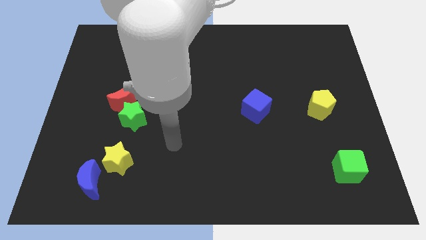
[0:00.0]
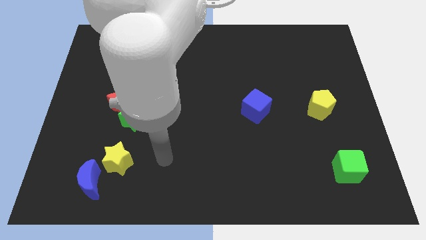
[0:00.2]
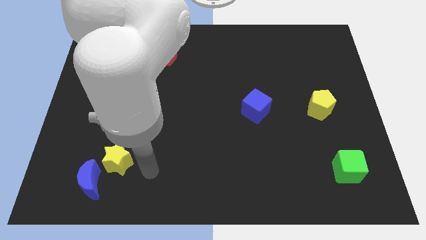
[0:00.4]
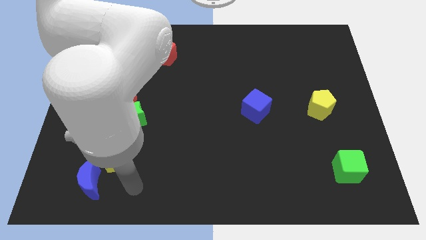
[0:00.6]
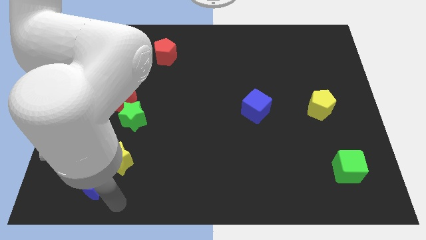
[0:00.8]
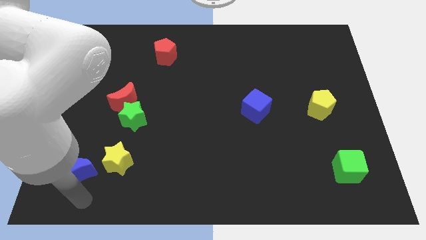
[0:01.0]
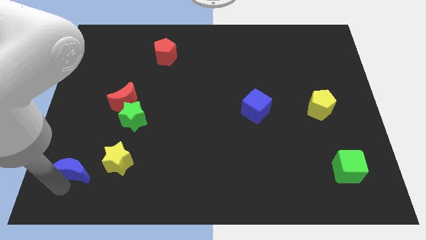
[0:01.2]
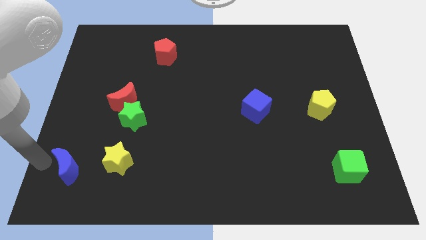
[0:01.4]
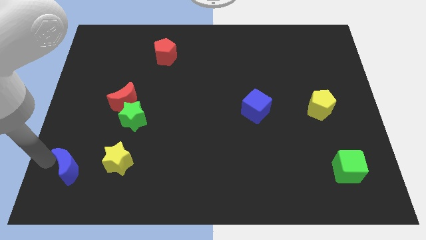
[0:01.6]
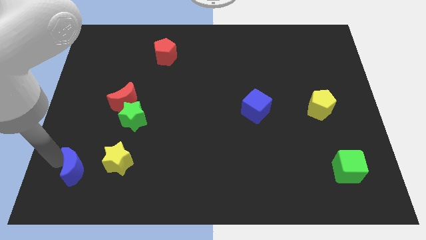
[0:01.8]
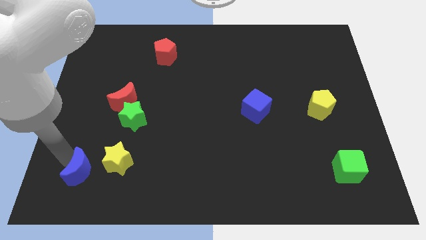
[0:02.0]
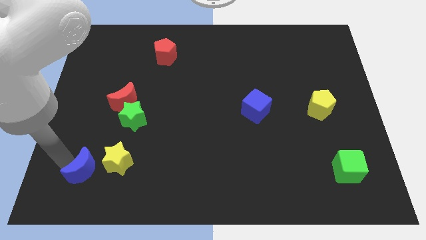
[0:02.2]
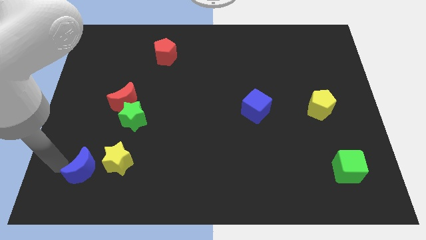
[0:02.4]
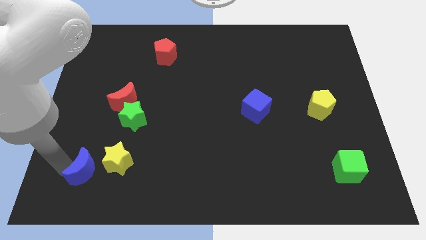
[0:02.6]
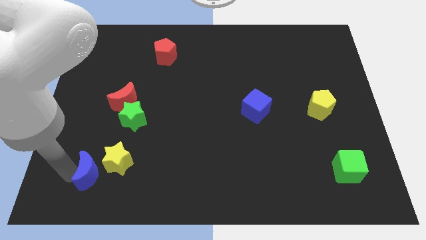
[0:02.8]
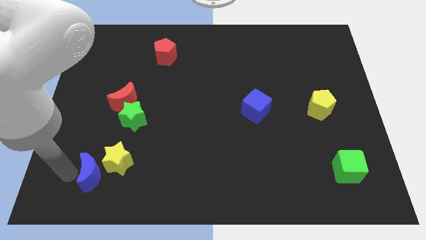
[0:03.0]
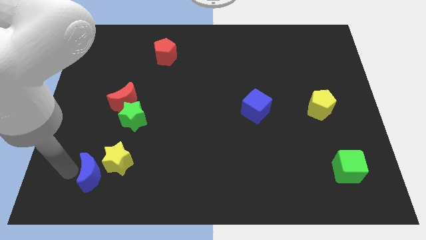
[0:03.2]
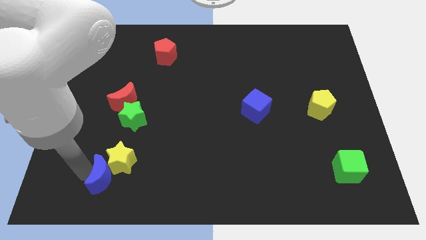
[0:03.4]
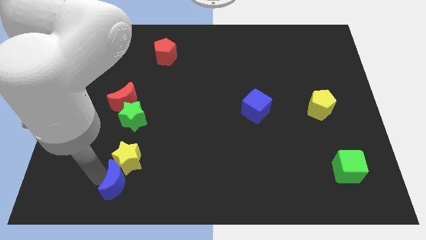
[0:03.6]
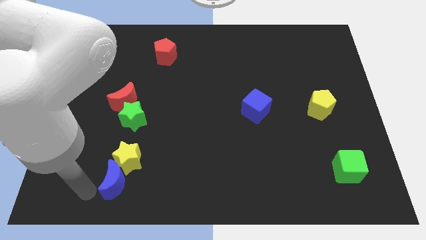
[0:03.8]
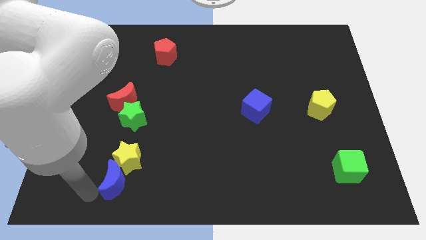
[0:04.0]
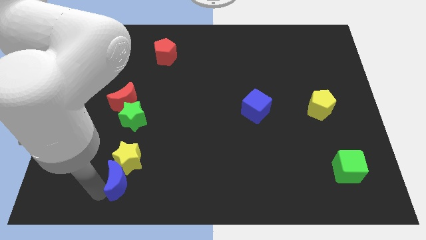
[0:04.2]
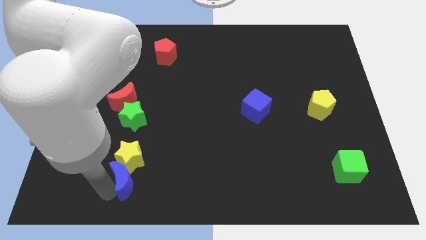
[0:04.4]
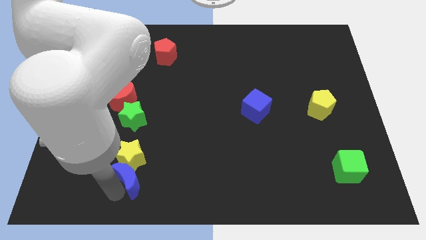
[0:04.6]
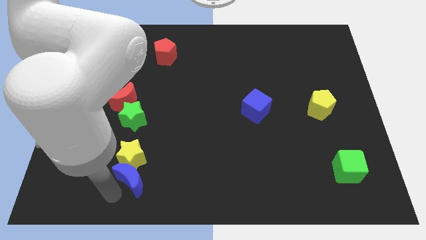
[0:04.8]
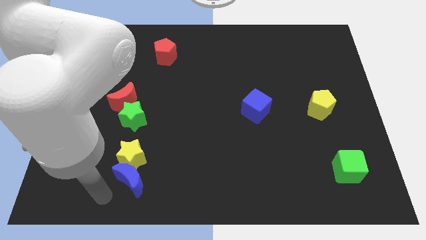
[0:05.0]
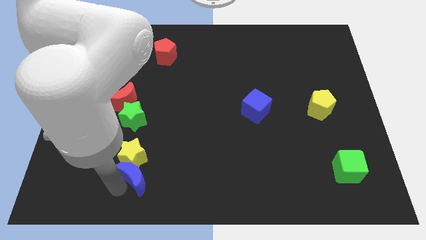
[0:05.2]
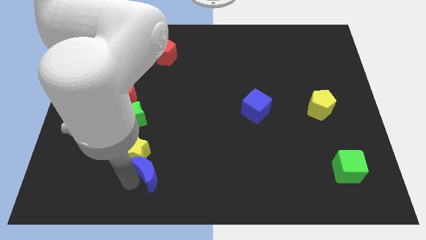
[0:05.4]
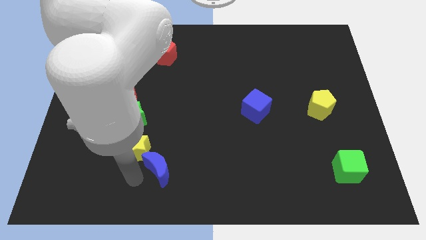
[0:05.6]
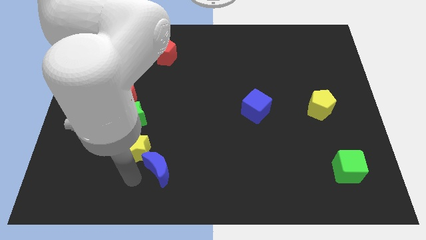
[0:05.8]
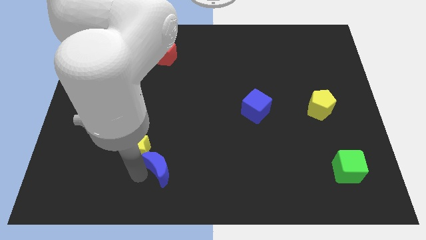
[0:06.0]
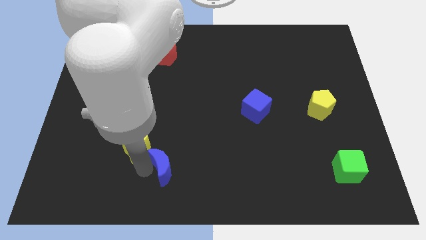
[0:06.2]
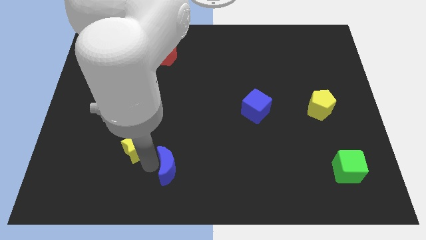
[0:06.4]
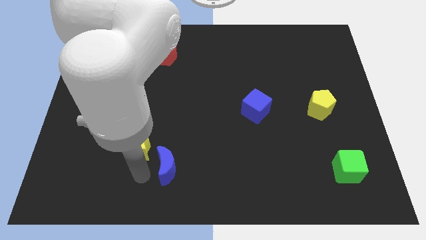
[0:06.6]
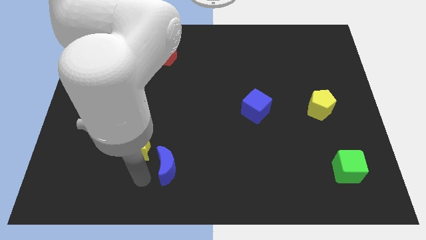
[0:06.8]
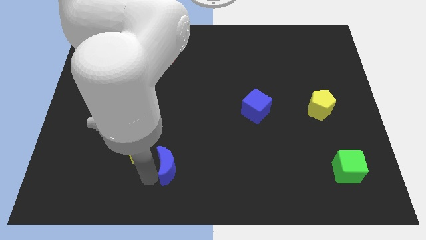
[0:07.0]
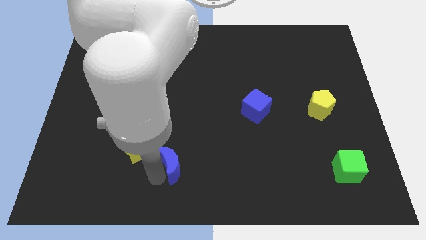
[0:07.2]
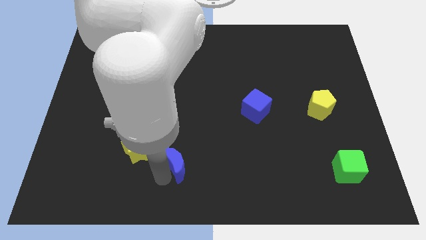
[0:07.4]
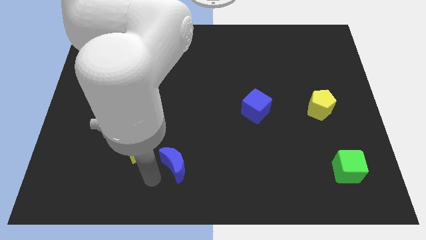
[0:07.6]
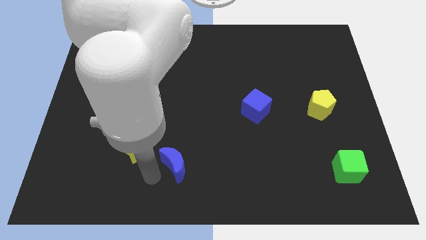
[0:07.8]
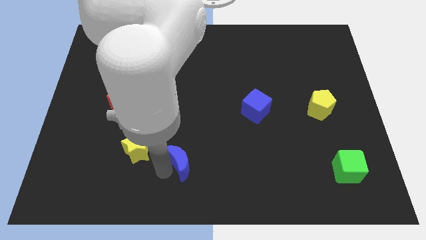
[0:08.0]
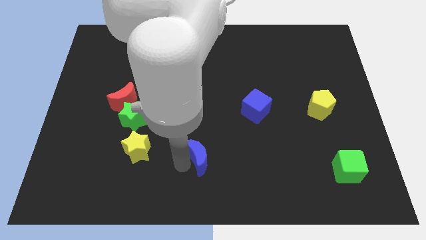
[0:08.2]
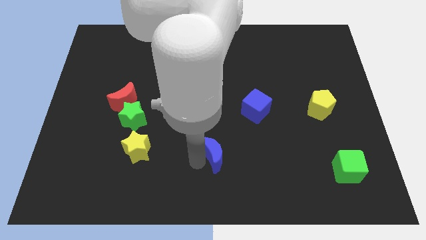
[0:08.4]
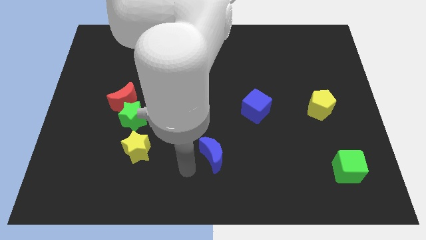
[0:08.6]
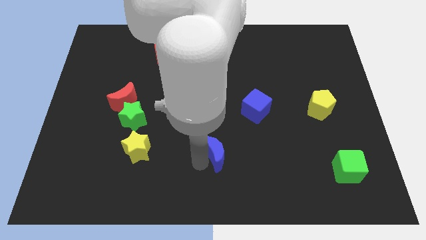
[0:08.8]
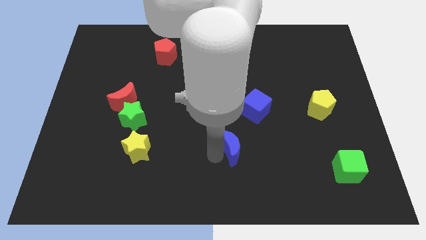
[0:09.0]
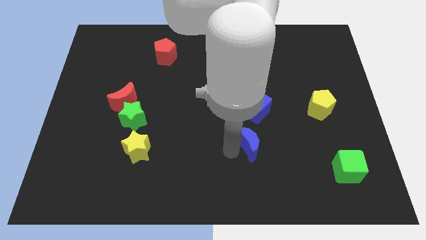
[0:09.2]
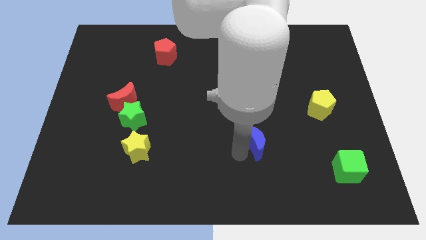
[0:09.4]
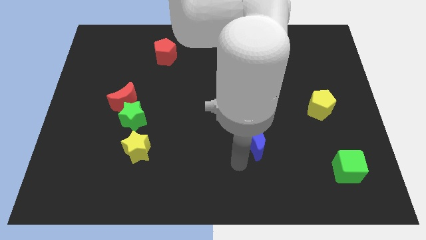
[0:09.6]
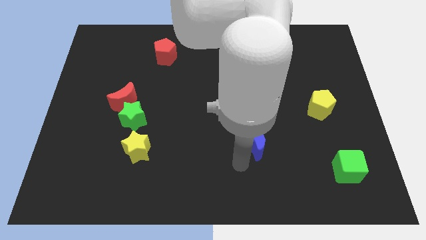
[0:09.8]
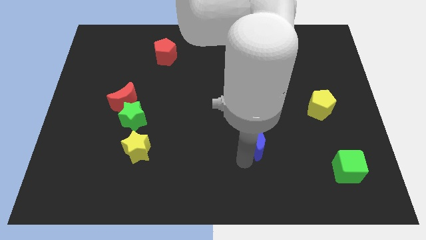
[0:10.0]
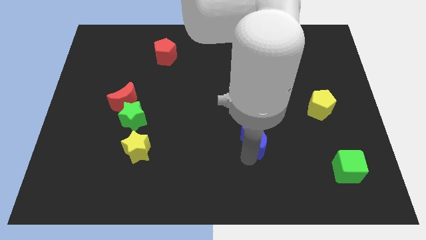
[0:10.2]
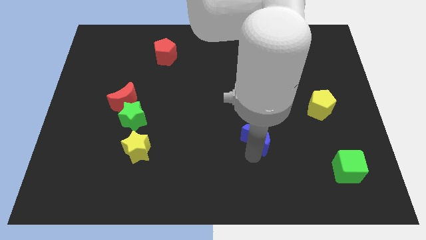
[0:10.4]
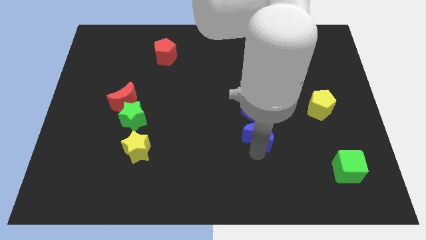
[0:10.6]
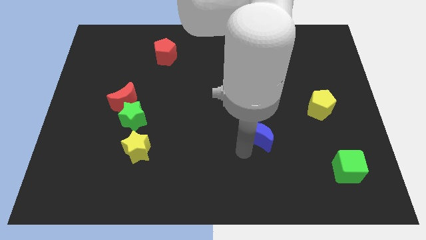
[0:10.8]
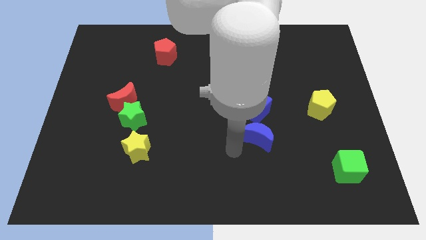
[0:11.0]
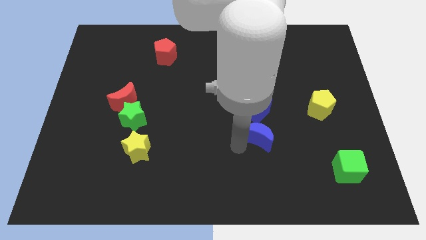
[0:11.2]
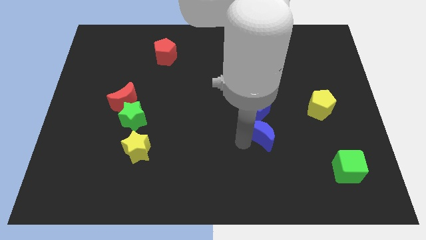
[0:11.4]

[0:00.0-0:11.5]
move the blue moon to the bottom right of the blue cube

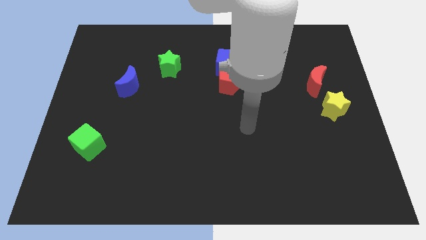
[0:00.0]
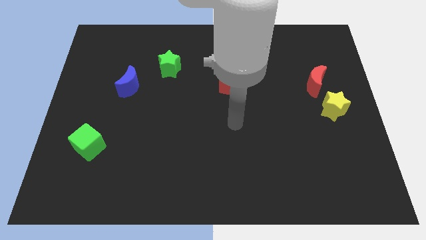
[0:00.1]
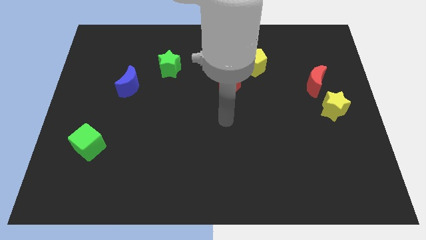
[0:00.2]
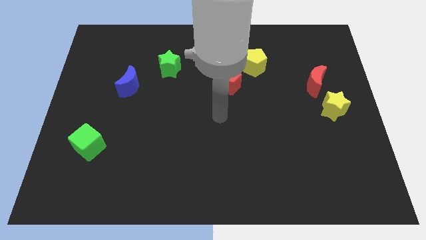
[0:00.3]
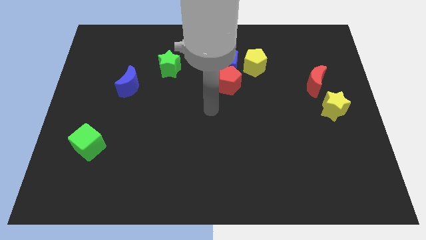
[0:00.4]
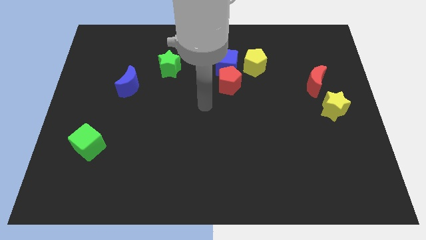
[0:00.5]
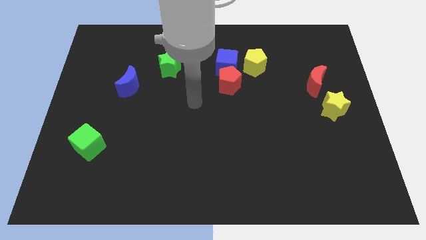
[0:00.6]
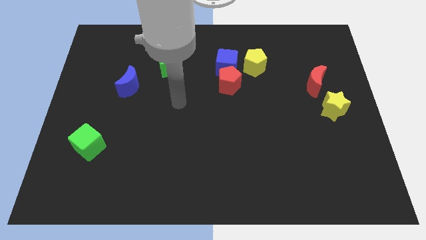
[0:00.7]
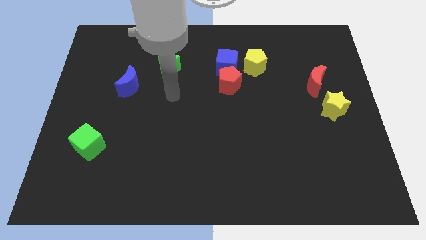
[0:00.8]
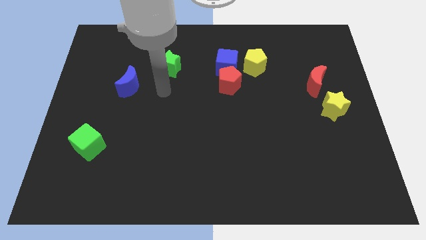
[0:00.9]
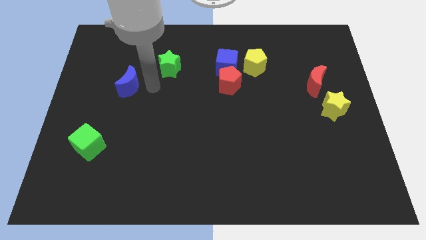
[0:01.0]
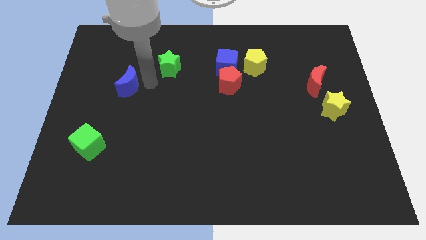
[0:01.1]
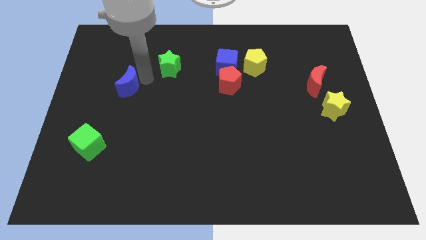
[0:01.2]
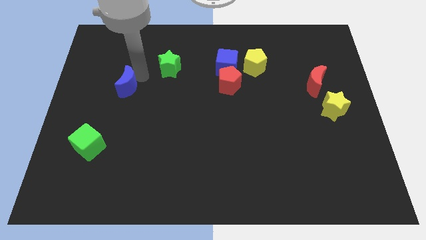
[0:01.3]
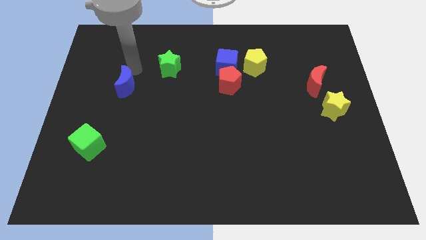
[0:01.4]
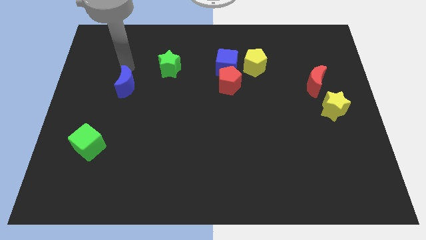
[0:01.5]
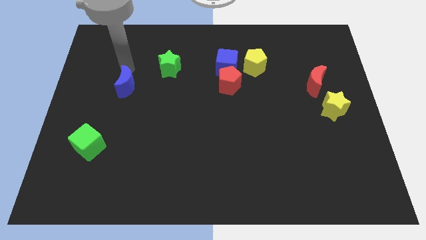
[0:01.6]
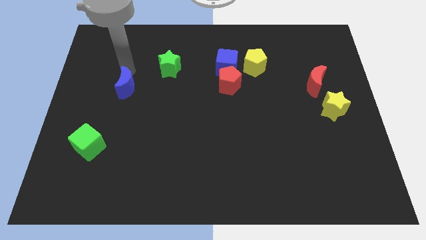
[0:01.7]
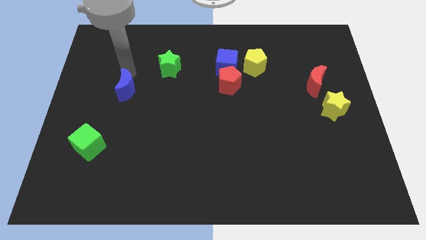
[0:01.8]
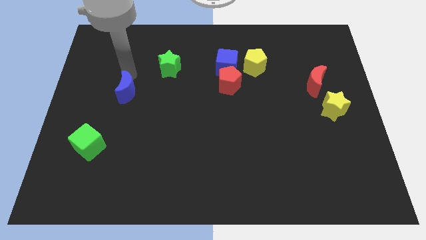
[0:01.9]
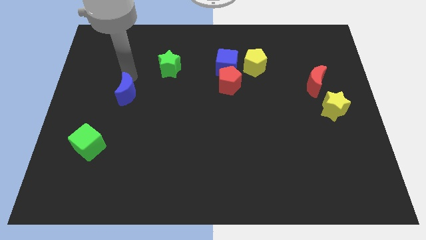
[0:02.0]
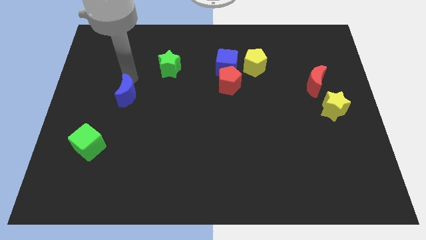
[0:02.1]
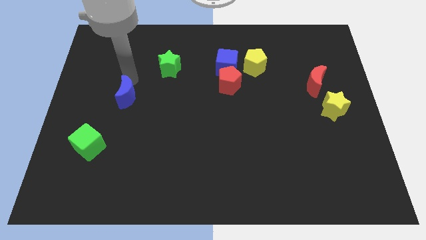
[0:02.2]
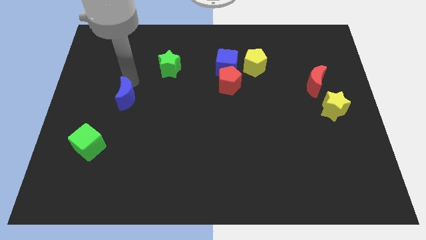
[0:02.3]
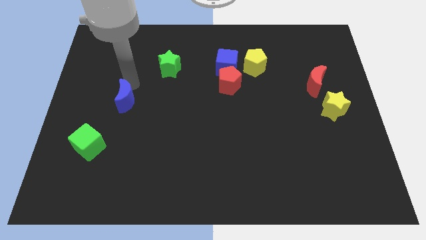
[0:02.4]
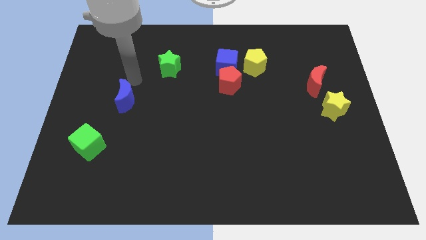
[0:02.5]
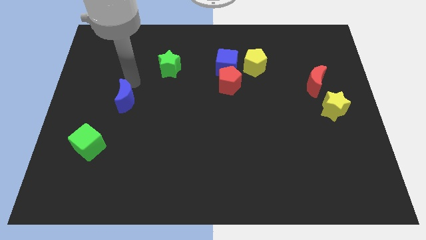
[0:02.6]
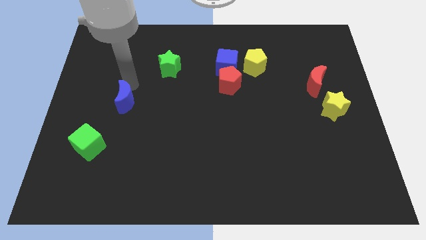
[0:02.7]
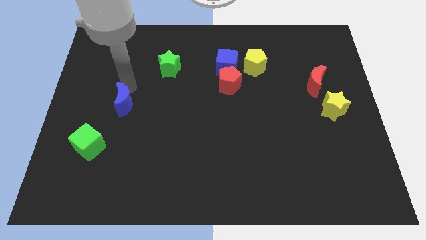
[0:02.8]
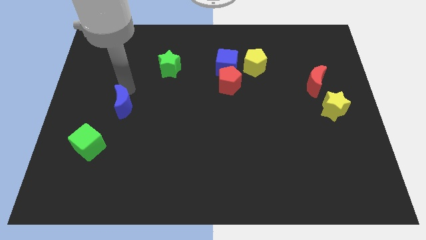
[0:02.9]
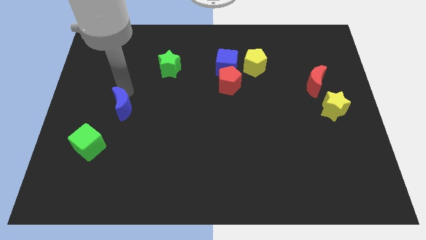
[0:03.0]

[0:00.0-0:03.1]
move the blue moon diagonally up and to the right of the green cube
